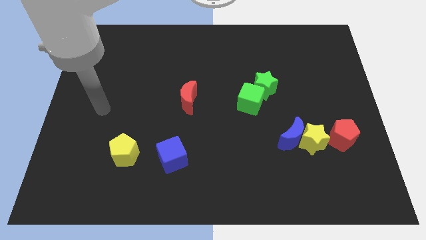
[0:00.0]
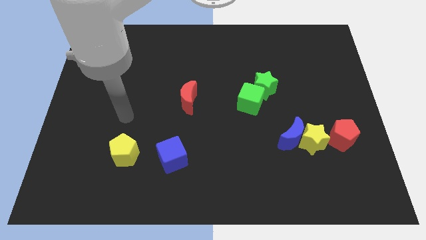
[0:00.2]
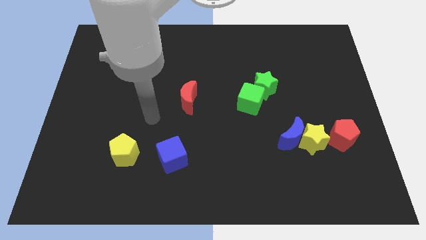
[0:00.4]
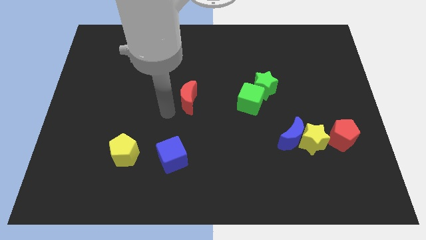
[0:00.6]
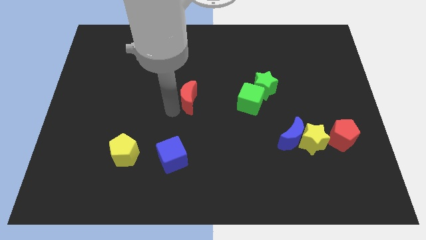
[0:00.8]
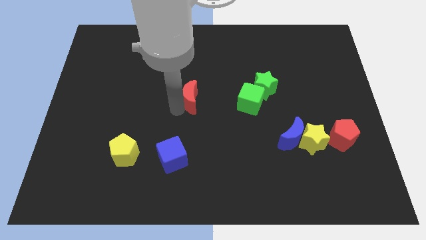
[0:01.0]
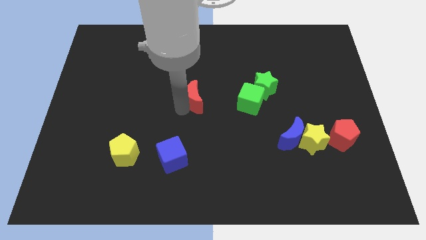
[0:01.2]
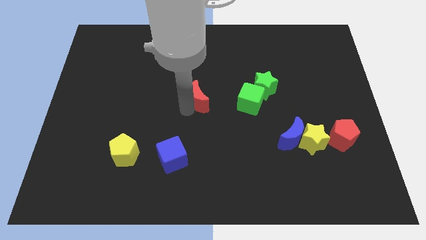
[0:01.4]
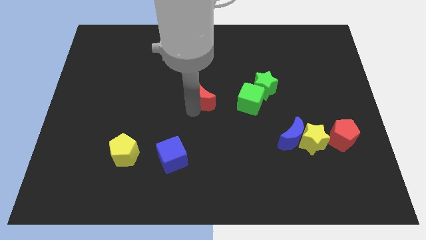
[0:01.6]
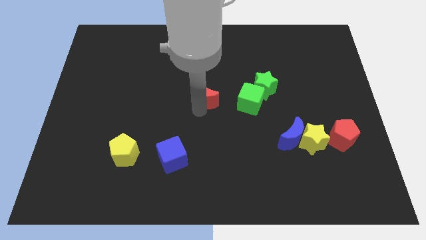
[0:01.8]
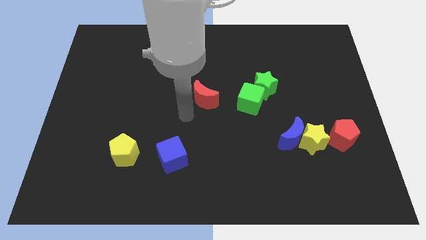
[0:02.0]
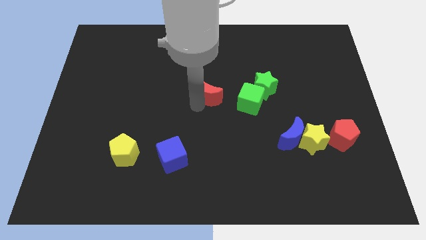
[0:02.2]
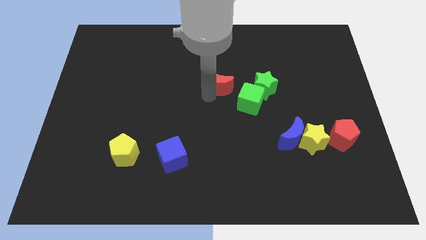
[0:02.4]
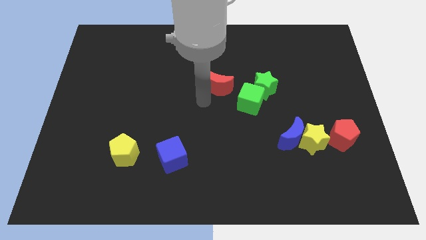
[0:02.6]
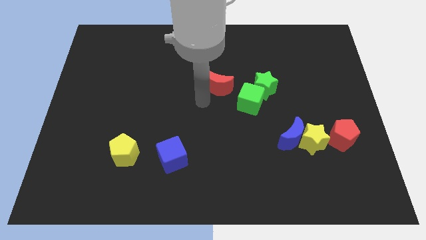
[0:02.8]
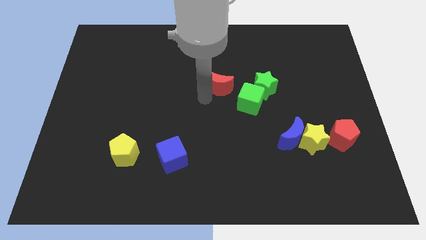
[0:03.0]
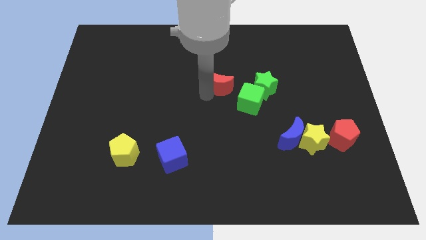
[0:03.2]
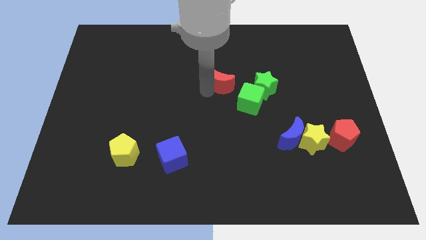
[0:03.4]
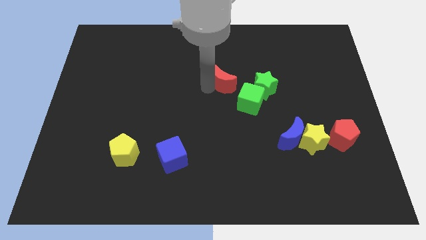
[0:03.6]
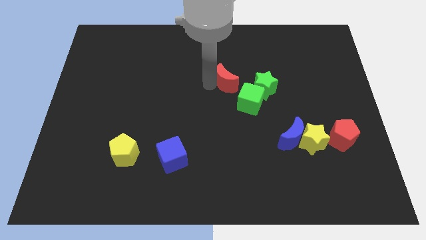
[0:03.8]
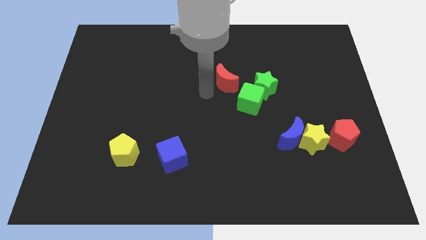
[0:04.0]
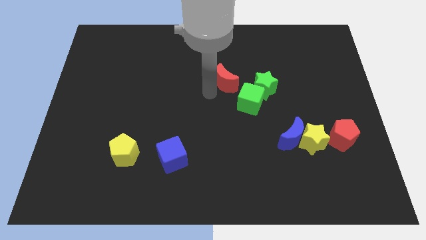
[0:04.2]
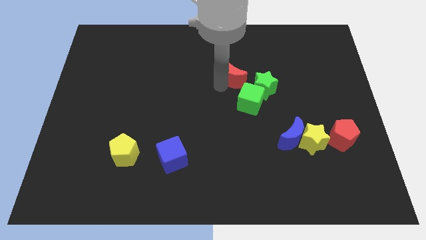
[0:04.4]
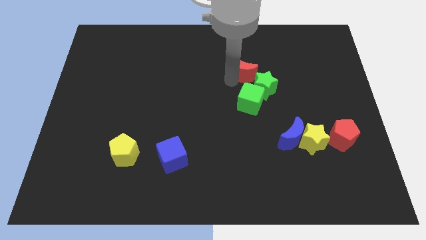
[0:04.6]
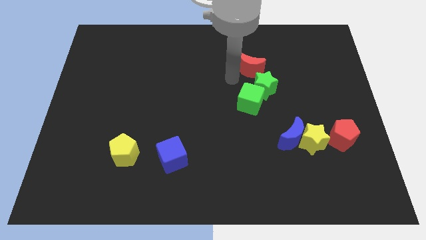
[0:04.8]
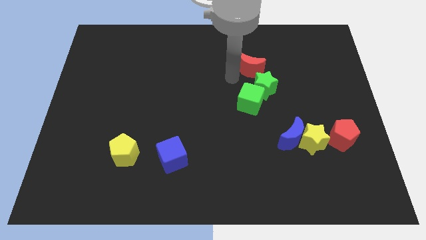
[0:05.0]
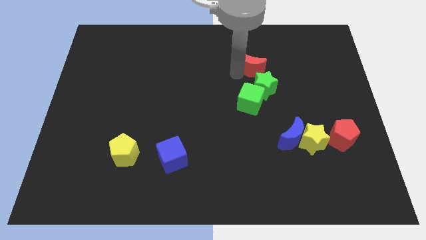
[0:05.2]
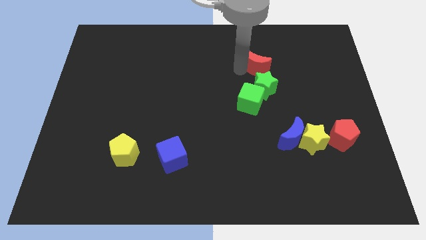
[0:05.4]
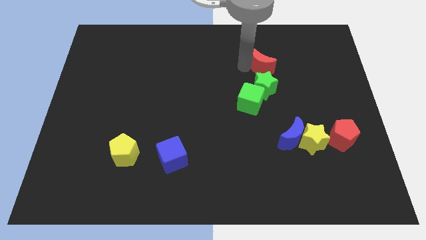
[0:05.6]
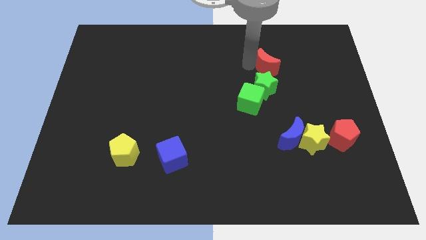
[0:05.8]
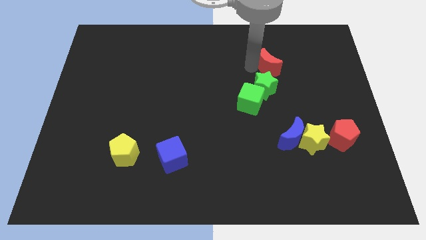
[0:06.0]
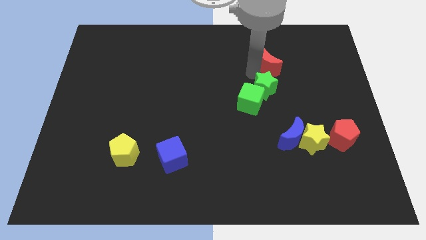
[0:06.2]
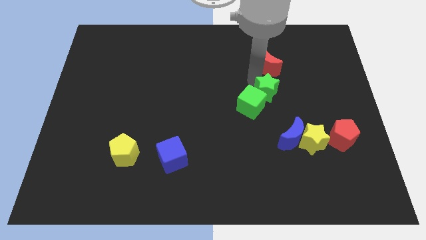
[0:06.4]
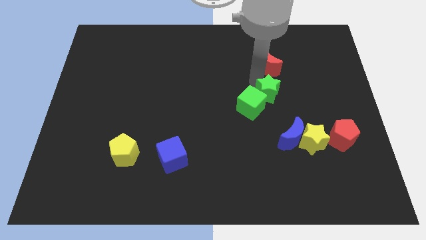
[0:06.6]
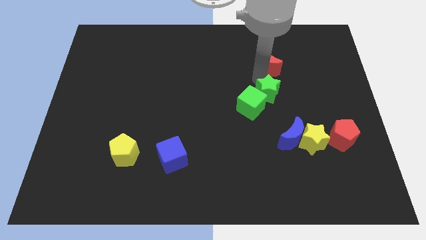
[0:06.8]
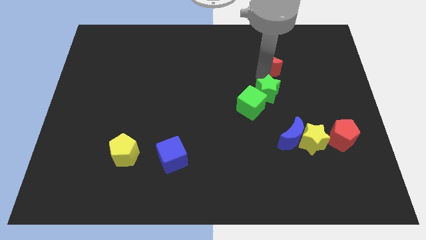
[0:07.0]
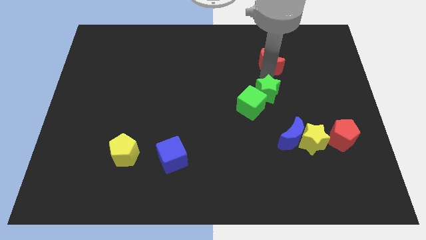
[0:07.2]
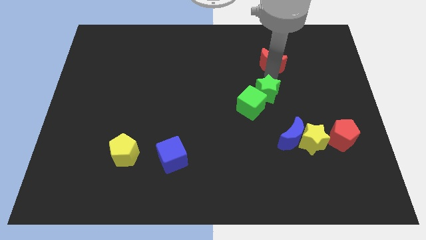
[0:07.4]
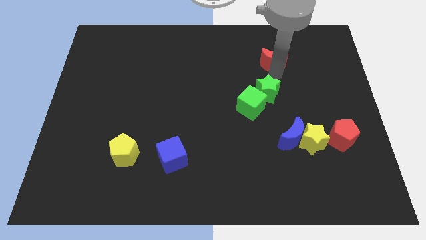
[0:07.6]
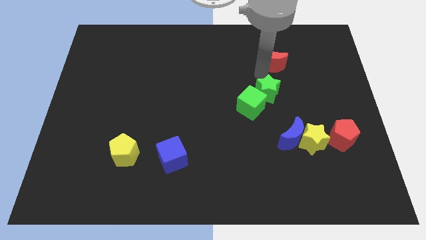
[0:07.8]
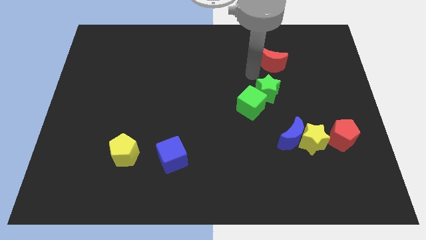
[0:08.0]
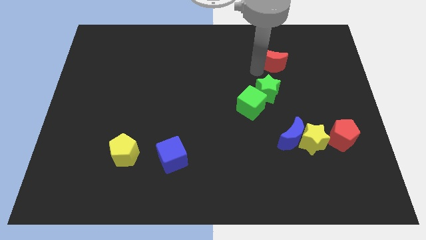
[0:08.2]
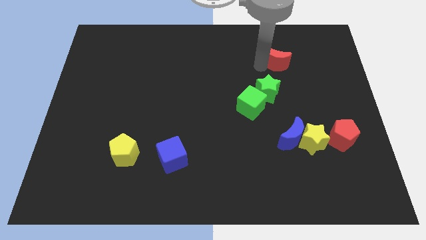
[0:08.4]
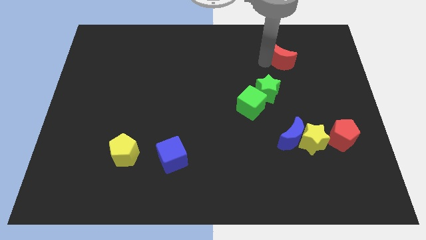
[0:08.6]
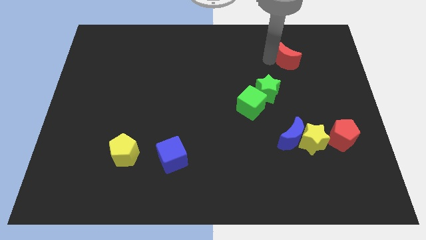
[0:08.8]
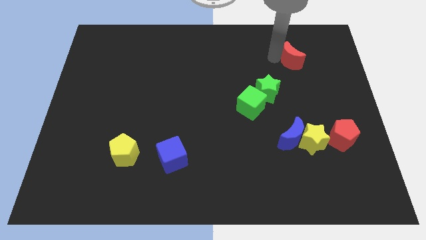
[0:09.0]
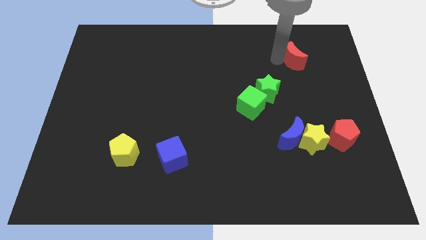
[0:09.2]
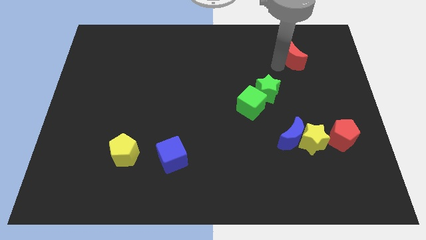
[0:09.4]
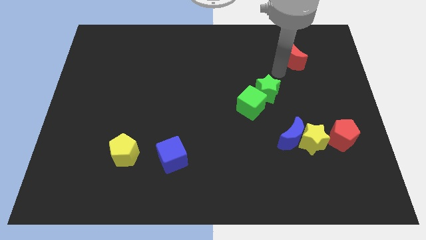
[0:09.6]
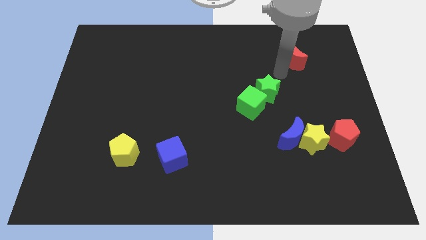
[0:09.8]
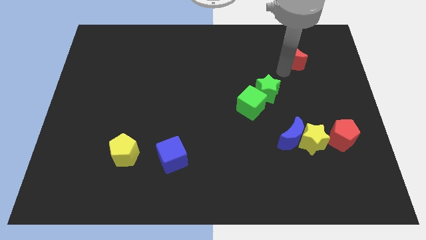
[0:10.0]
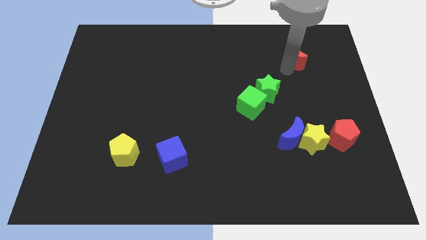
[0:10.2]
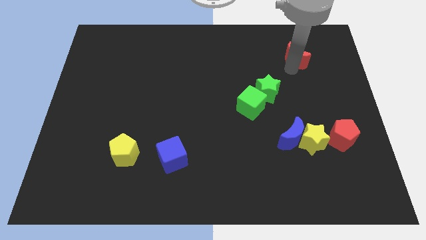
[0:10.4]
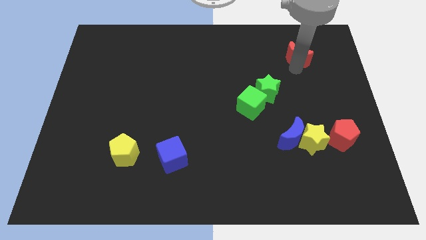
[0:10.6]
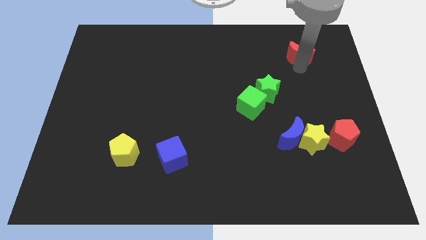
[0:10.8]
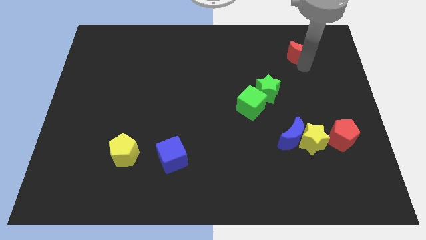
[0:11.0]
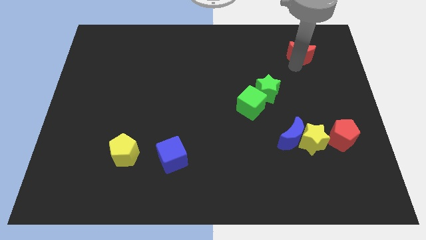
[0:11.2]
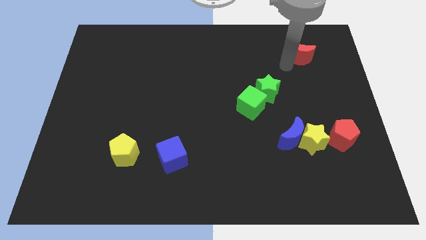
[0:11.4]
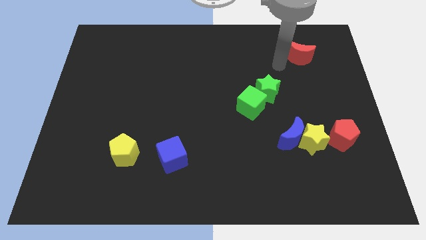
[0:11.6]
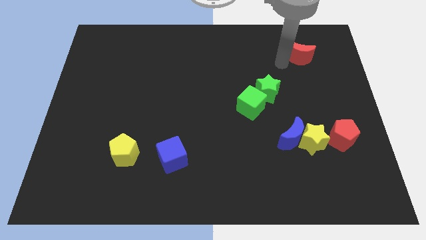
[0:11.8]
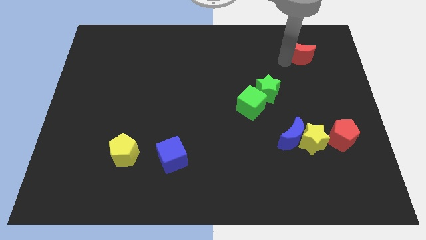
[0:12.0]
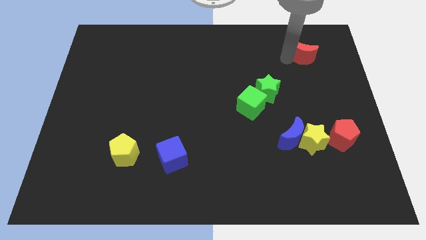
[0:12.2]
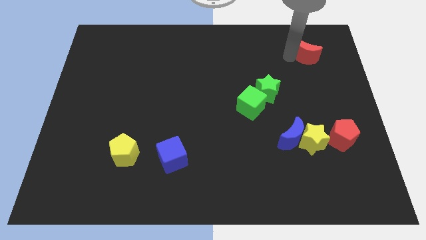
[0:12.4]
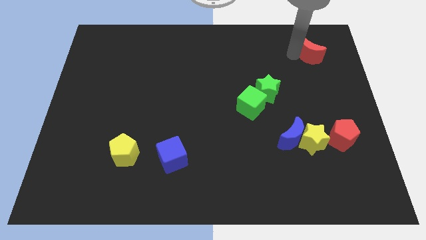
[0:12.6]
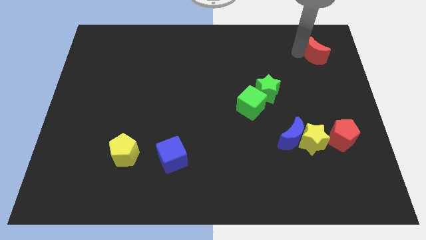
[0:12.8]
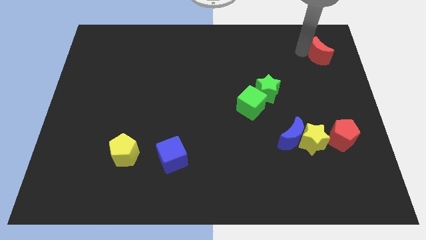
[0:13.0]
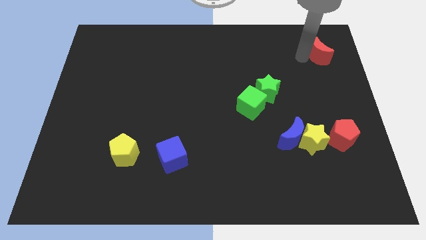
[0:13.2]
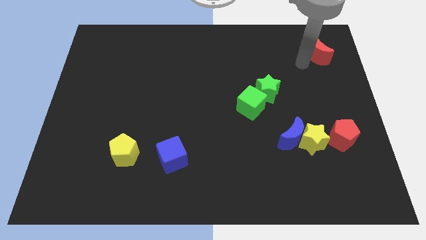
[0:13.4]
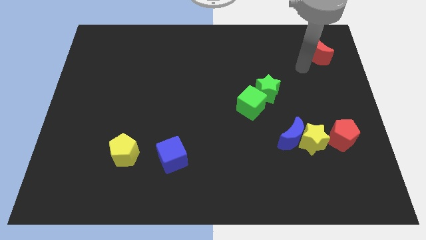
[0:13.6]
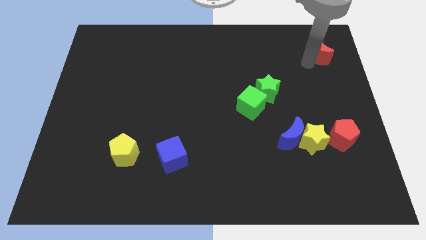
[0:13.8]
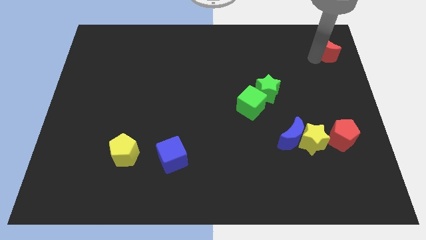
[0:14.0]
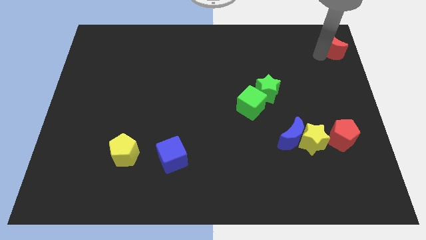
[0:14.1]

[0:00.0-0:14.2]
slide the red moon to the top right
